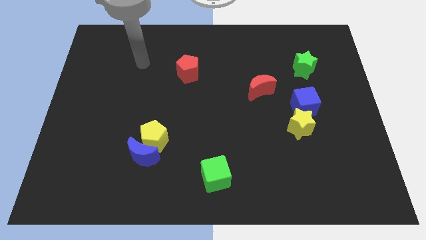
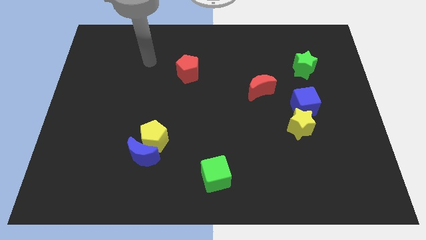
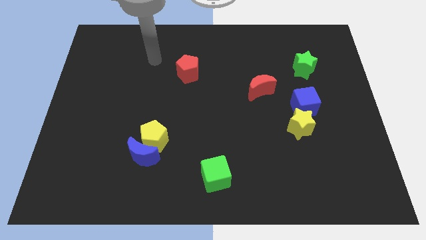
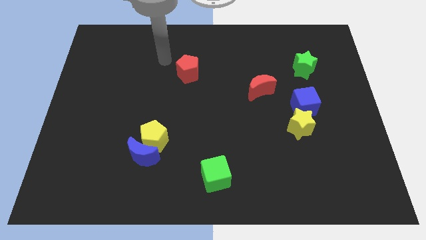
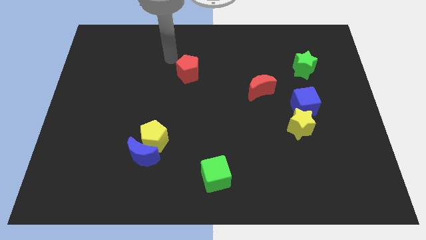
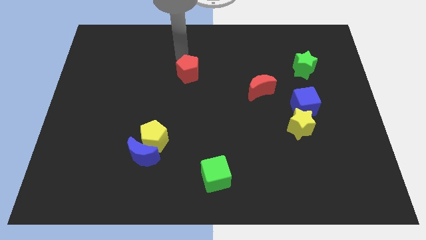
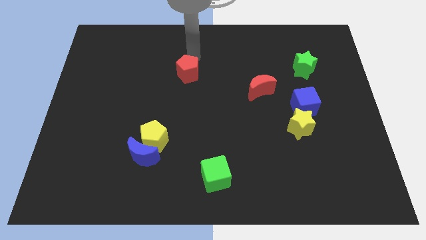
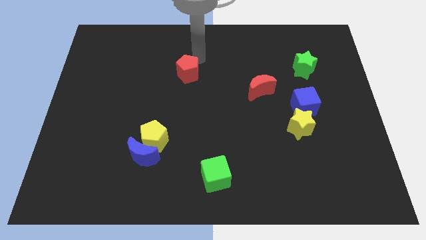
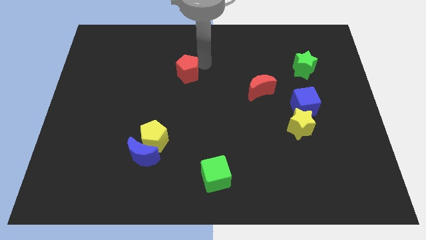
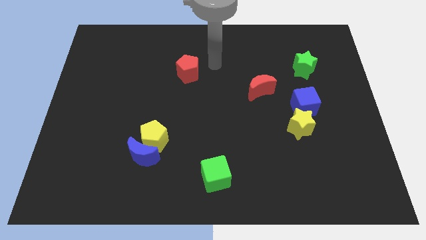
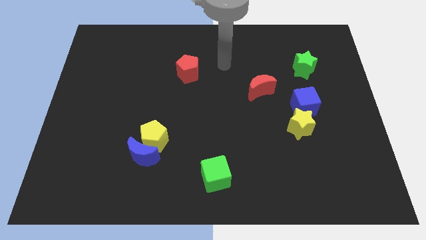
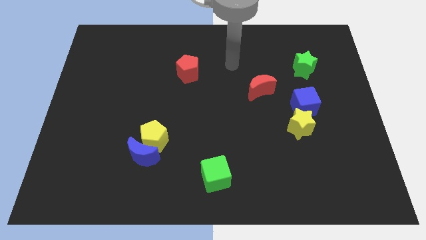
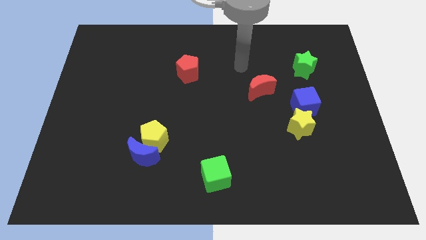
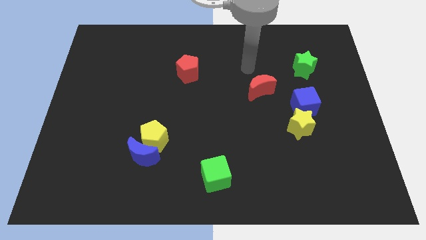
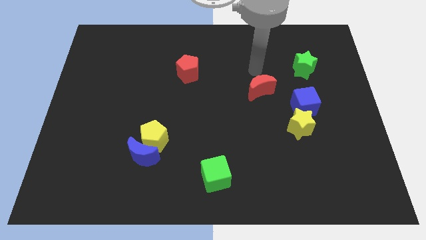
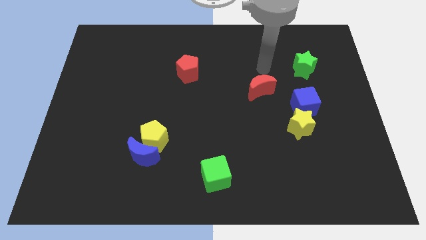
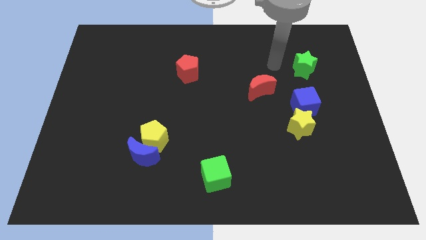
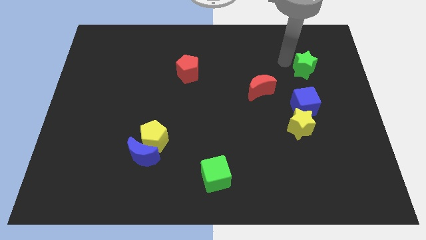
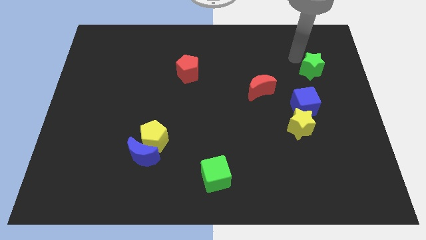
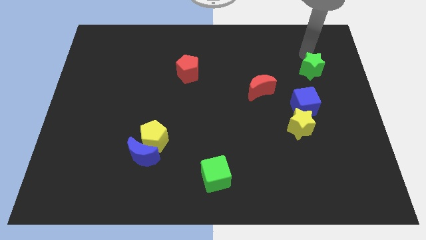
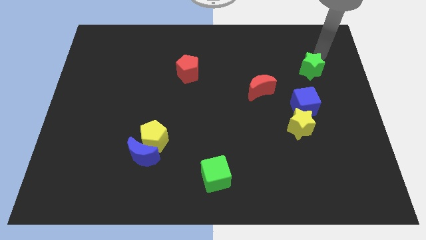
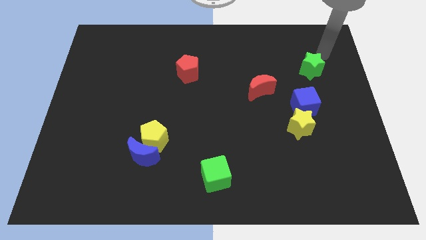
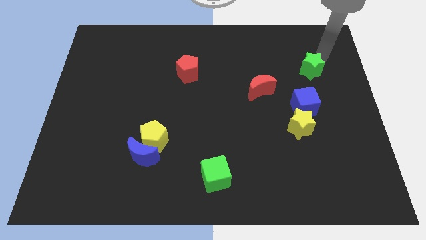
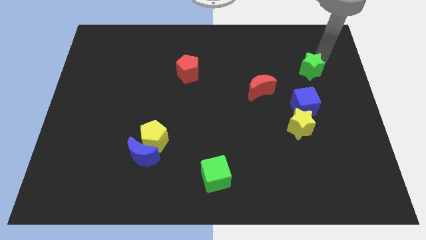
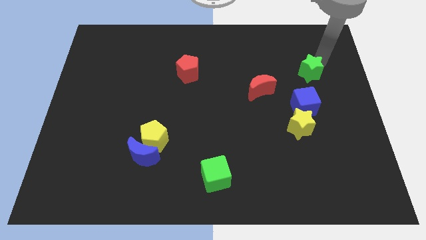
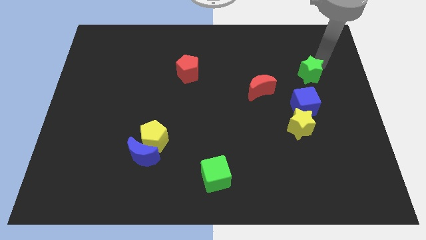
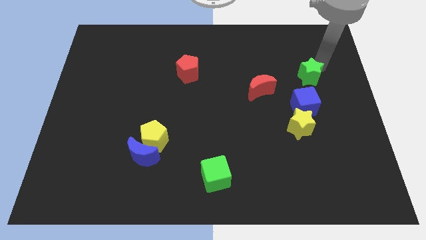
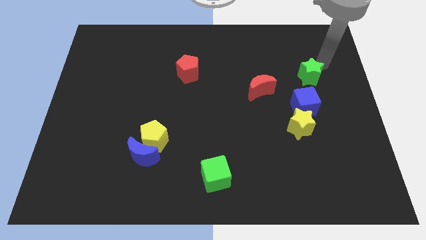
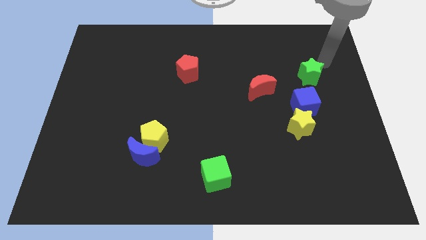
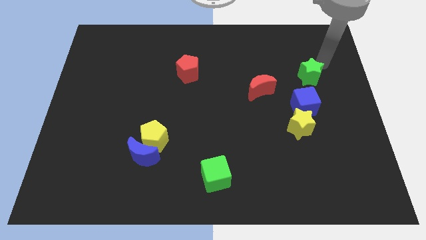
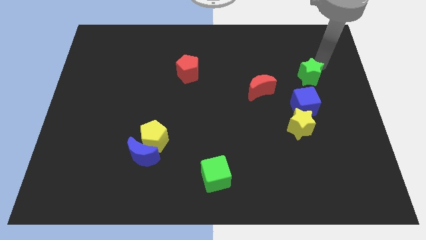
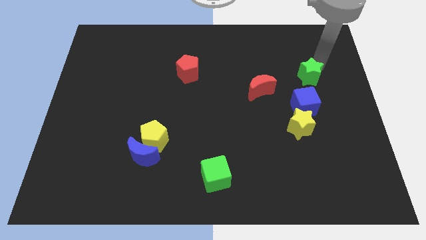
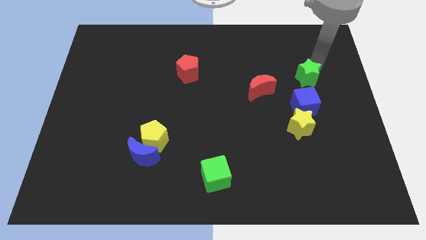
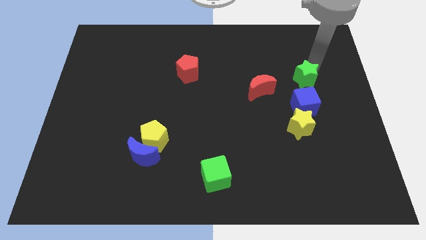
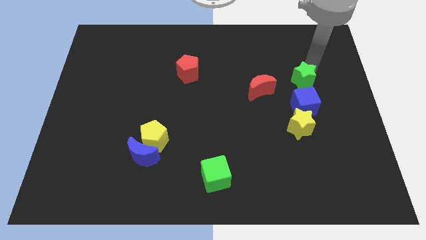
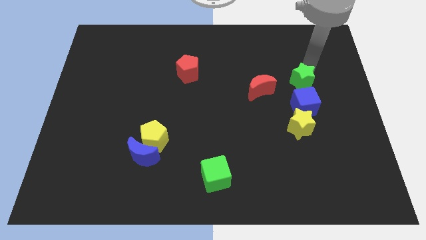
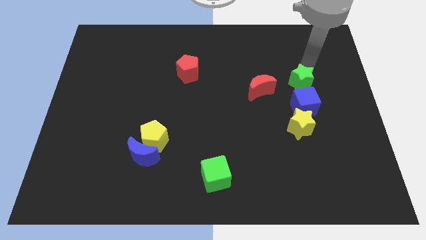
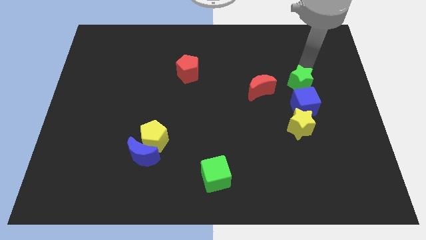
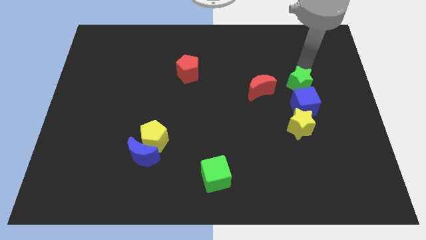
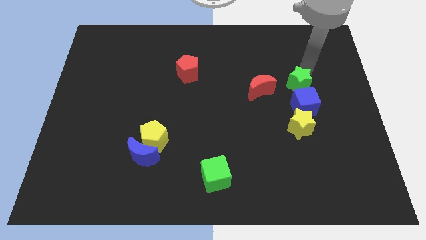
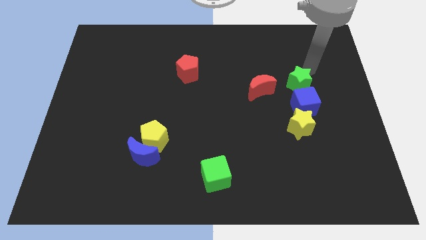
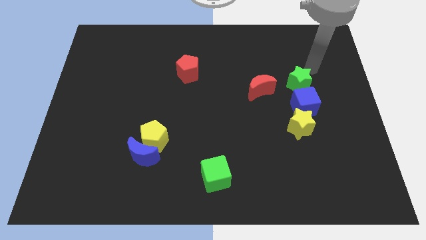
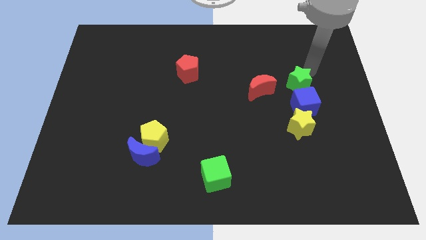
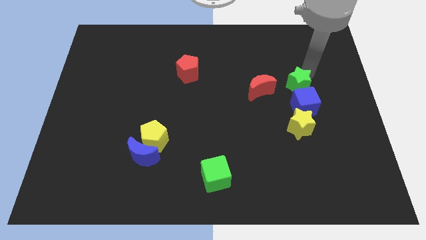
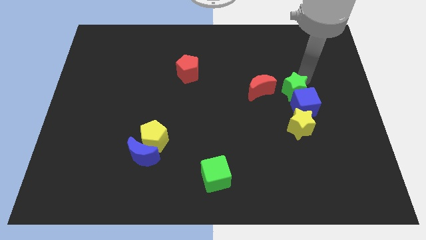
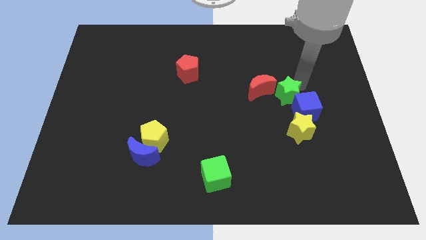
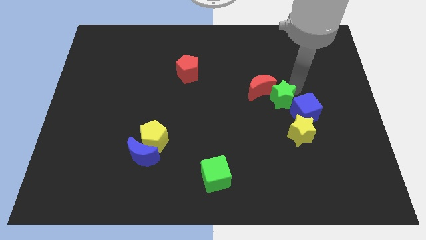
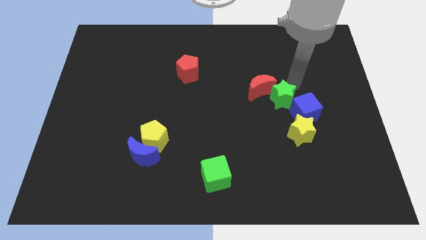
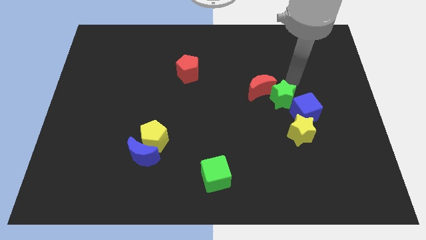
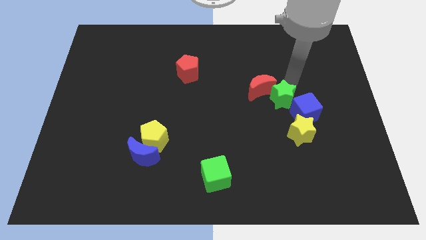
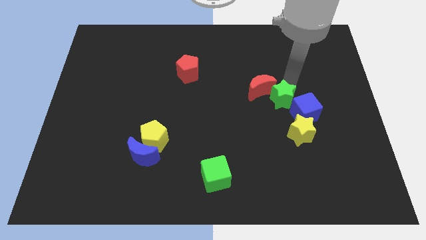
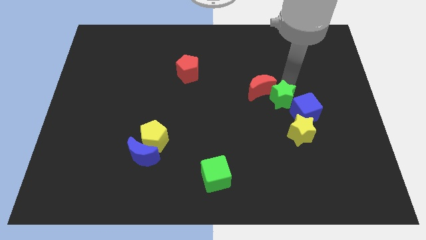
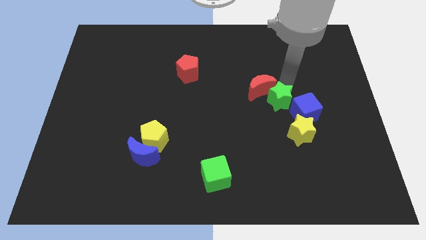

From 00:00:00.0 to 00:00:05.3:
slide the green star to the top left of the yellow star

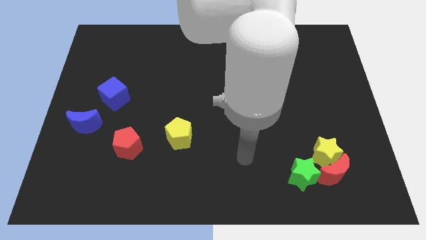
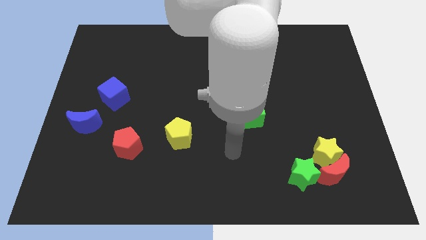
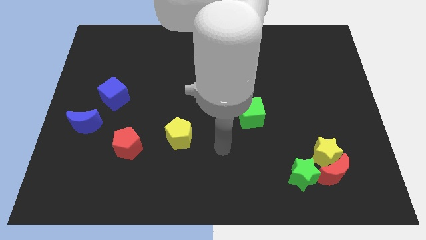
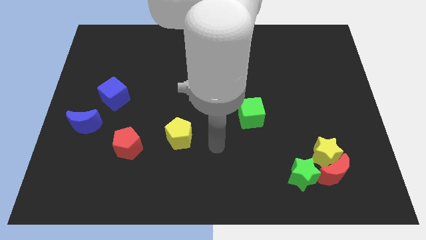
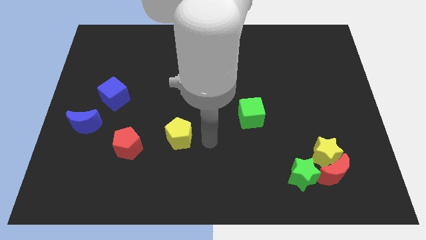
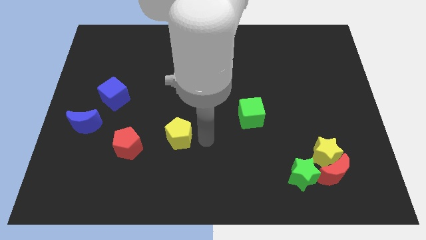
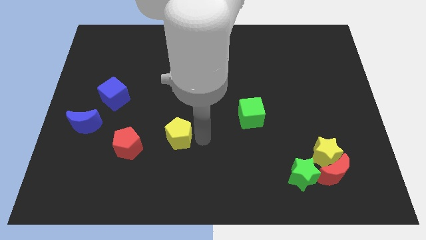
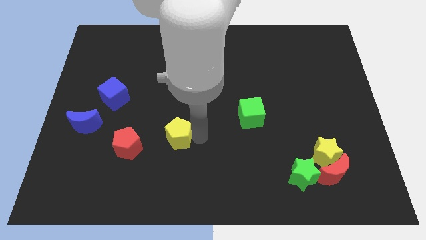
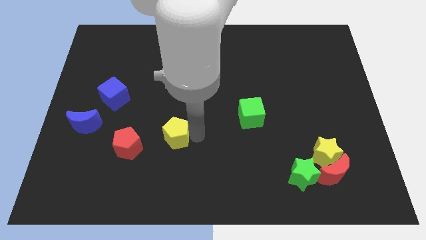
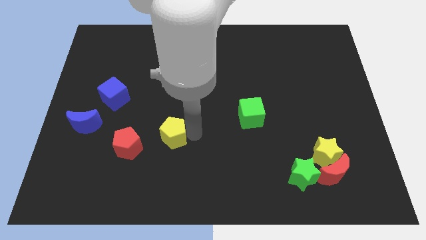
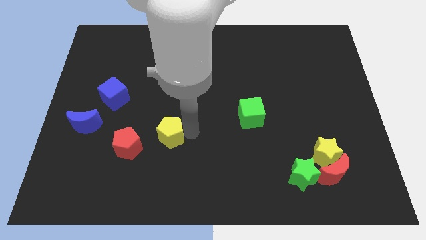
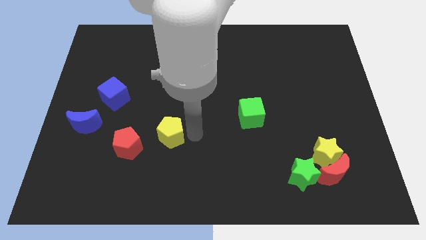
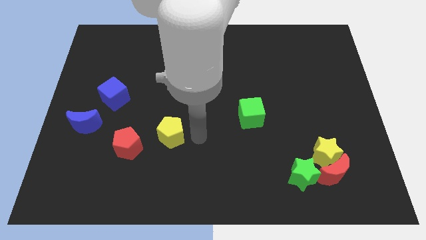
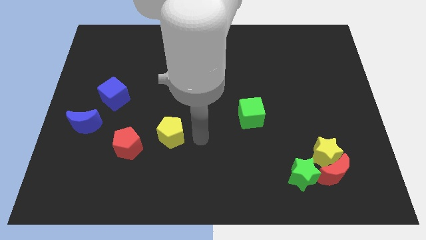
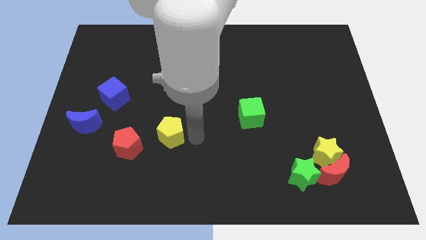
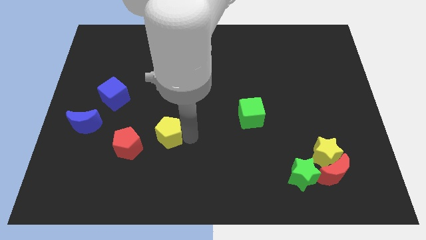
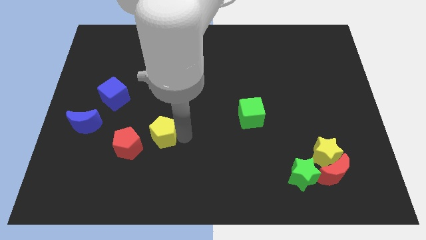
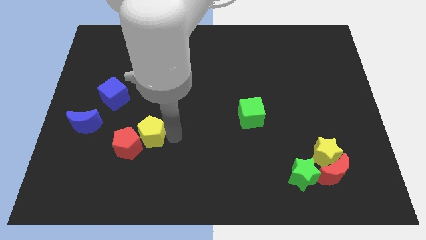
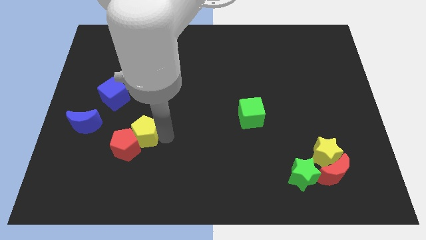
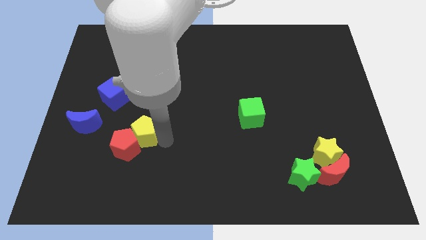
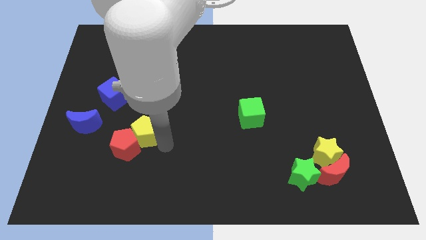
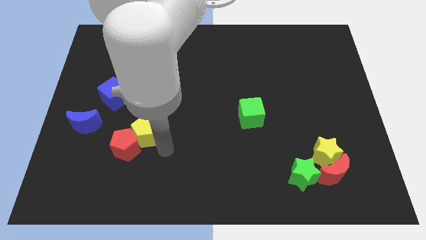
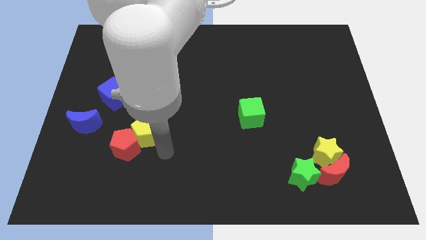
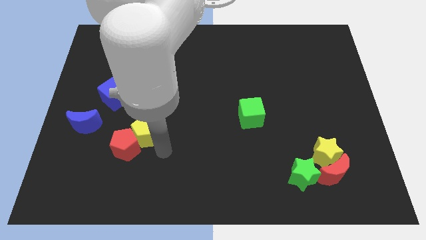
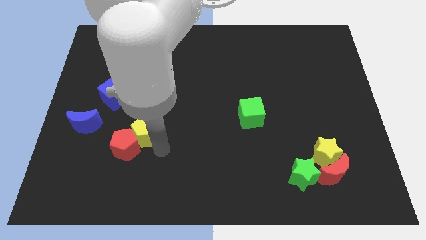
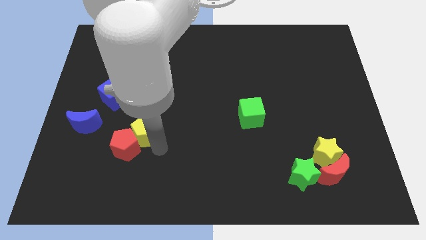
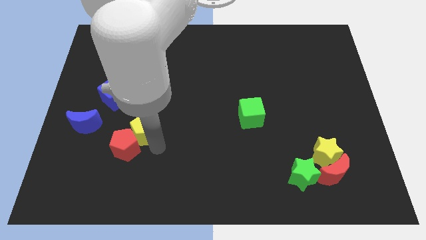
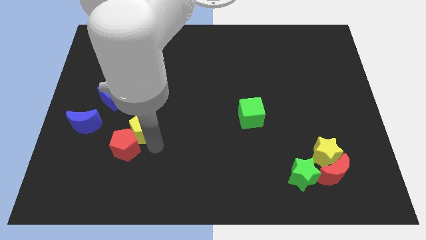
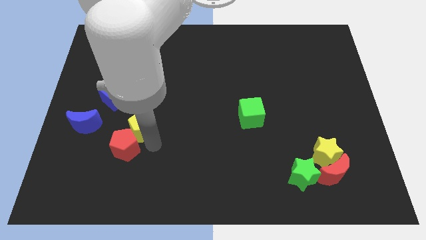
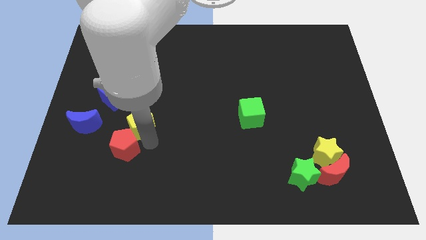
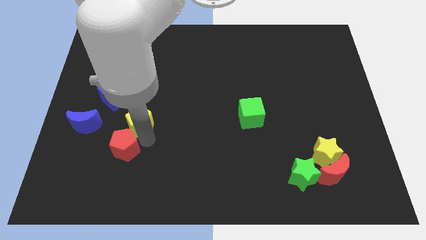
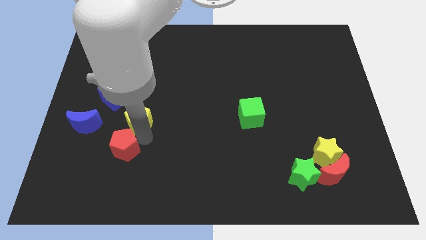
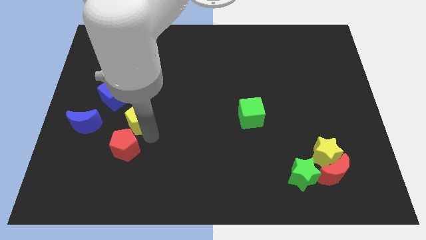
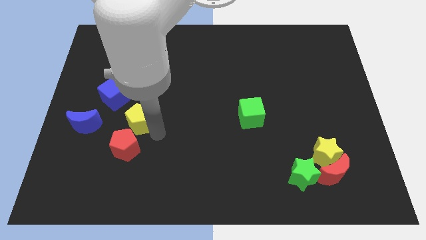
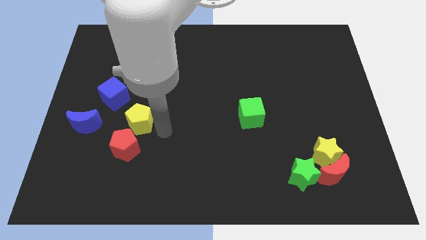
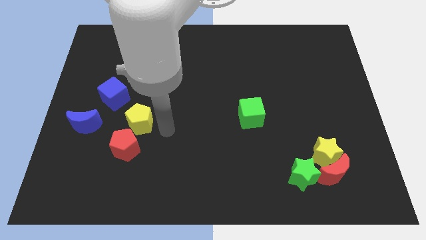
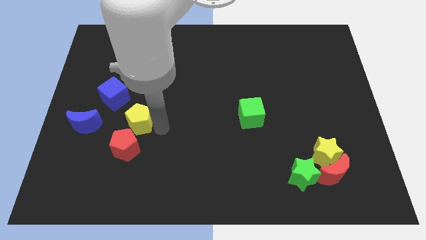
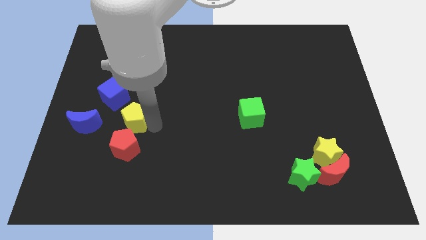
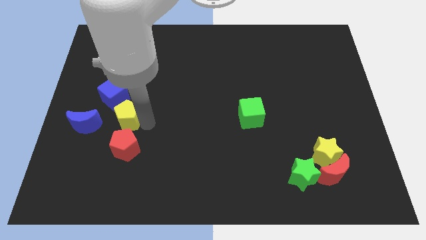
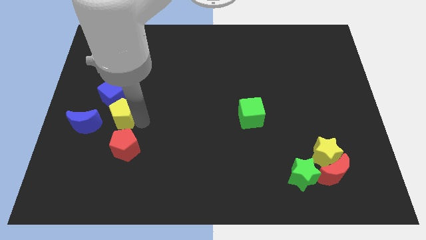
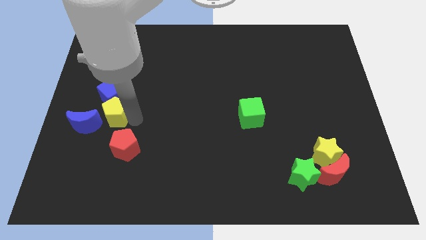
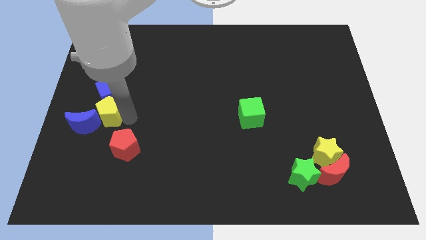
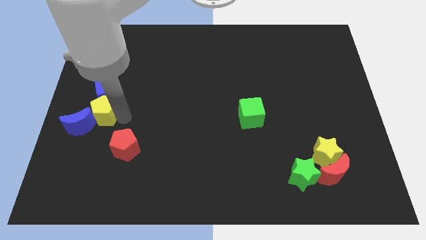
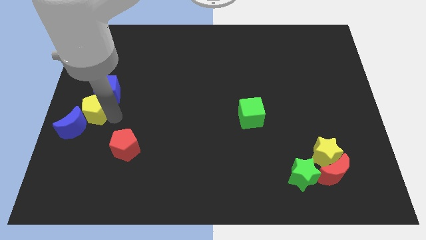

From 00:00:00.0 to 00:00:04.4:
move the yellow pentagon to the top side of the blue moon
